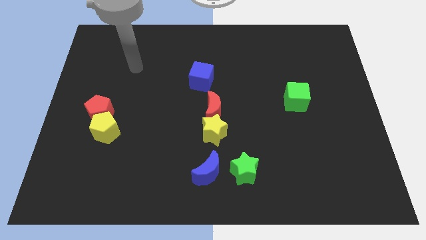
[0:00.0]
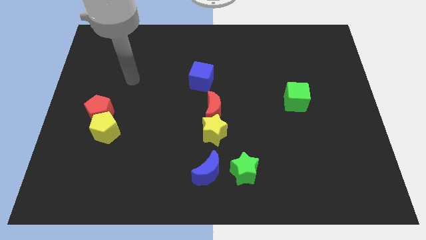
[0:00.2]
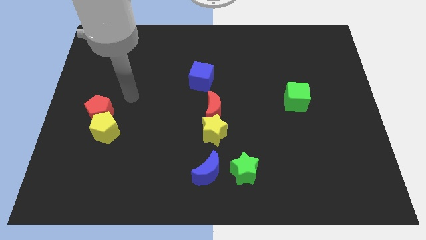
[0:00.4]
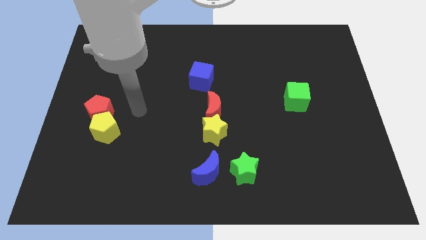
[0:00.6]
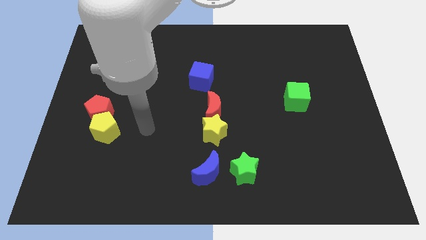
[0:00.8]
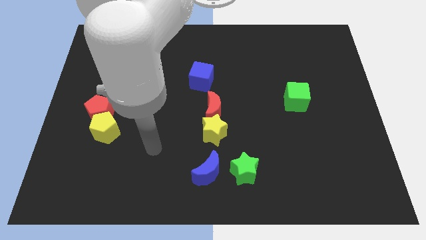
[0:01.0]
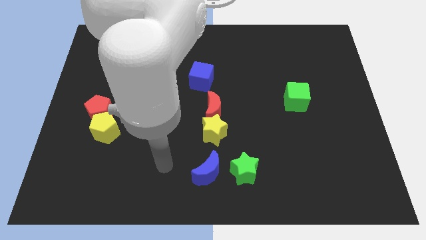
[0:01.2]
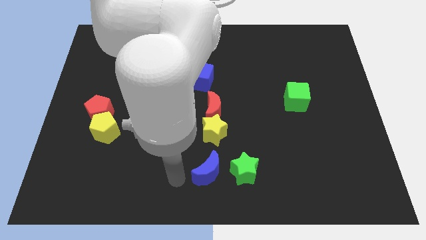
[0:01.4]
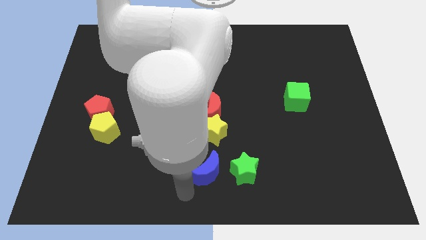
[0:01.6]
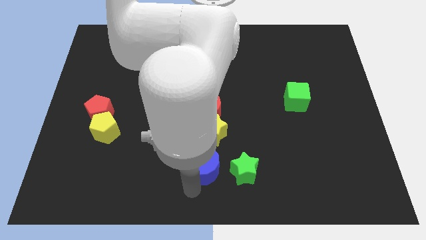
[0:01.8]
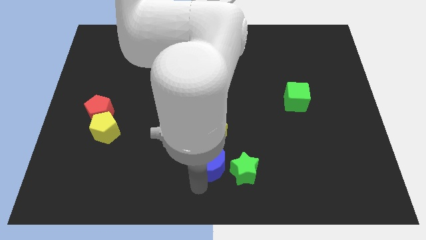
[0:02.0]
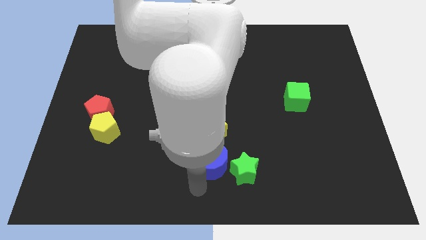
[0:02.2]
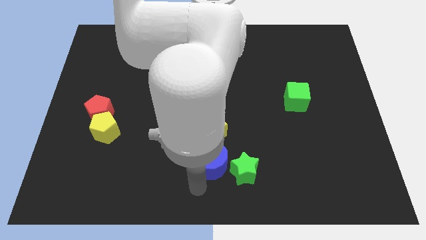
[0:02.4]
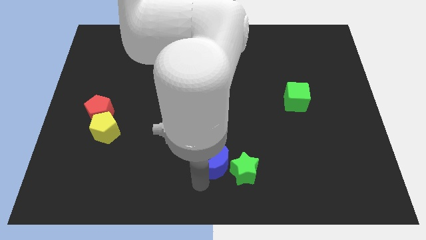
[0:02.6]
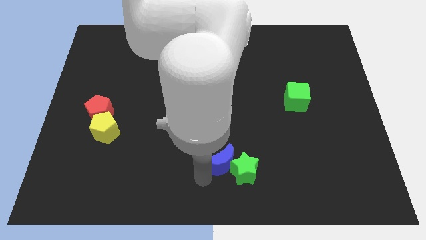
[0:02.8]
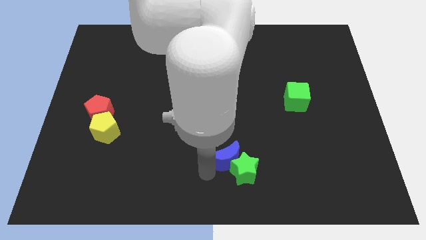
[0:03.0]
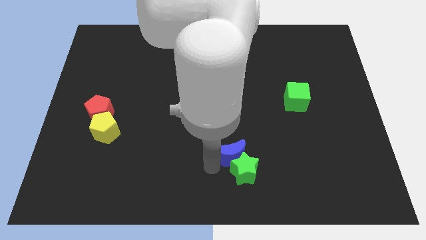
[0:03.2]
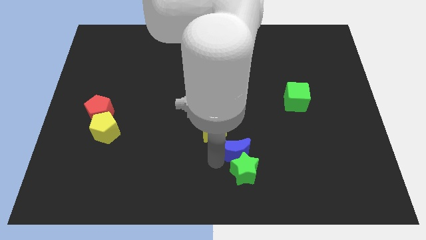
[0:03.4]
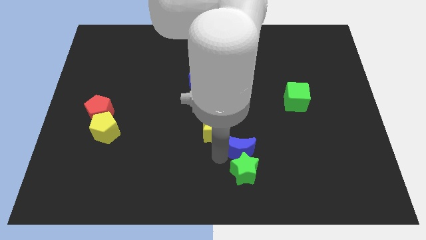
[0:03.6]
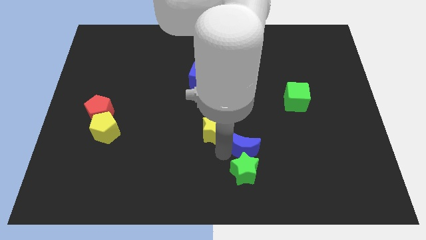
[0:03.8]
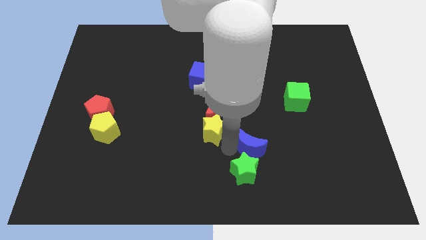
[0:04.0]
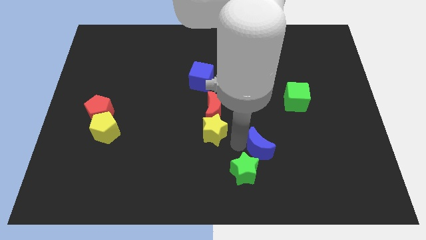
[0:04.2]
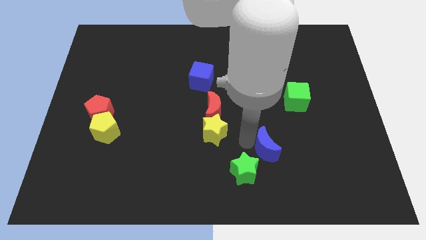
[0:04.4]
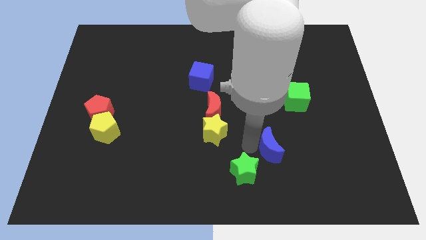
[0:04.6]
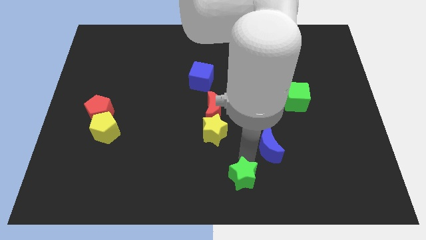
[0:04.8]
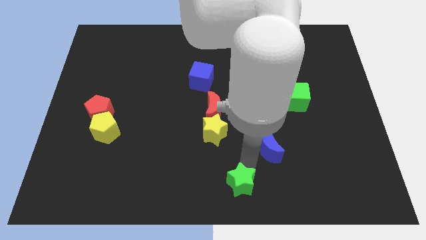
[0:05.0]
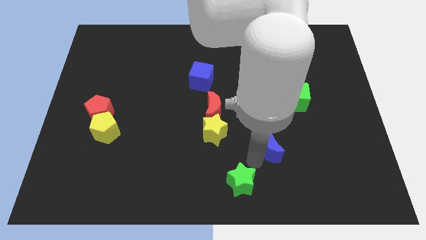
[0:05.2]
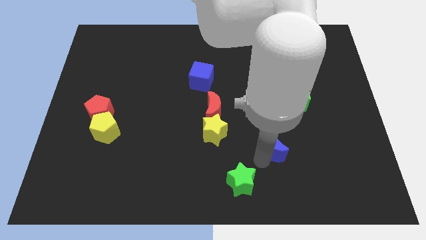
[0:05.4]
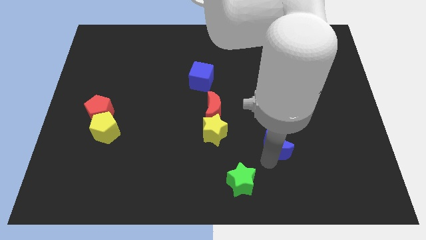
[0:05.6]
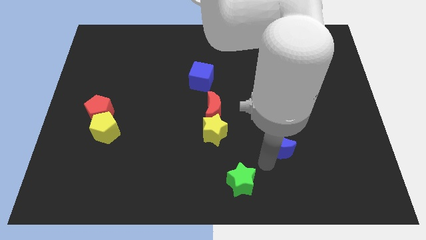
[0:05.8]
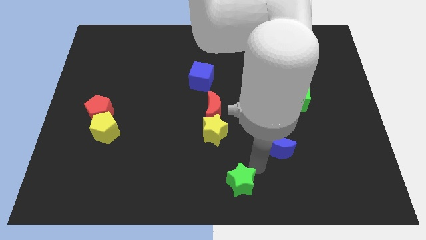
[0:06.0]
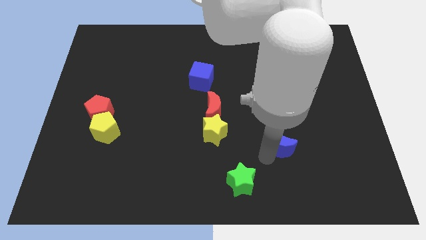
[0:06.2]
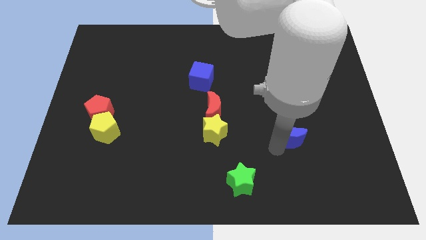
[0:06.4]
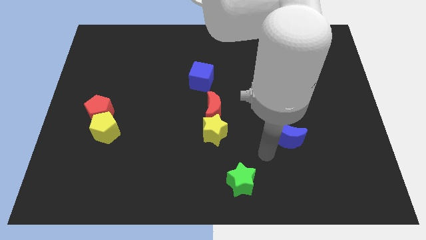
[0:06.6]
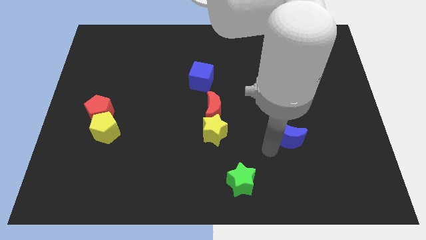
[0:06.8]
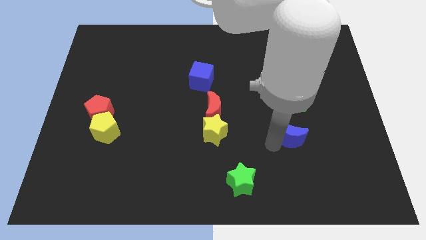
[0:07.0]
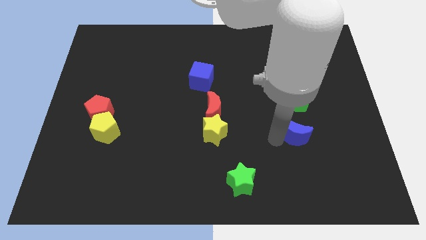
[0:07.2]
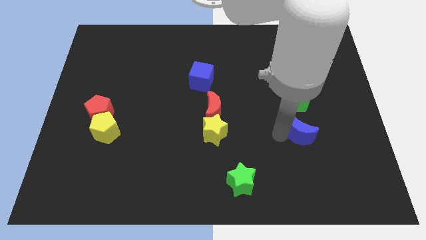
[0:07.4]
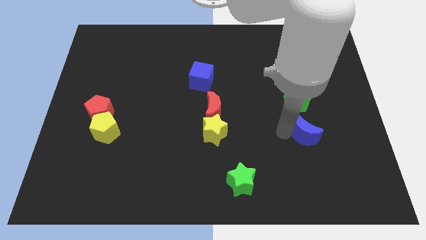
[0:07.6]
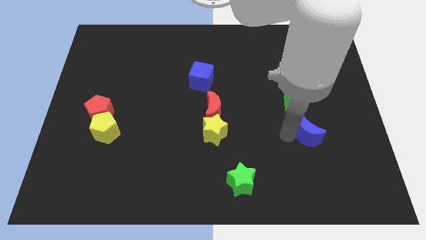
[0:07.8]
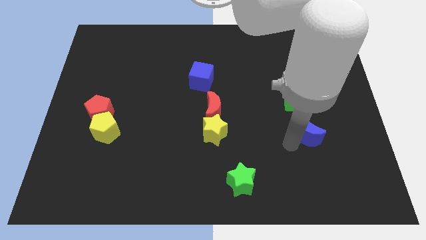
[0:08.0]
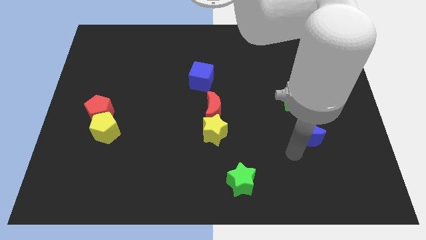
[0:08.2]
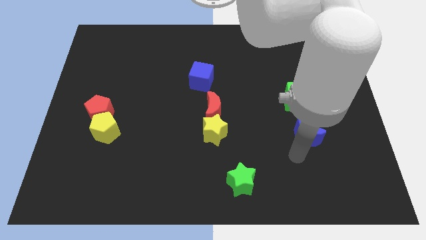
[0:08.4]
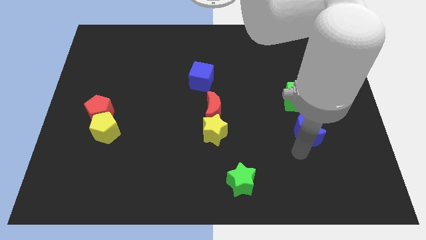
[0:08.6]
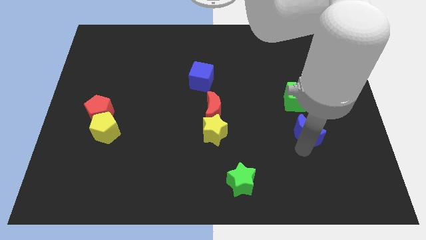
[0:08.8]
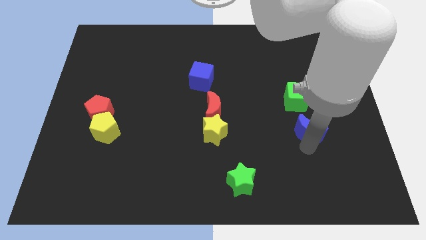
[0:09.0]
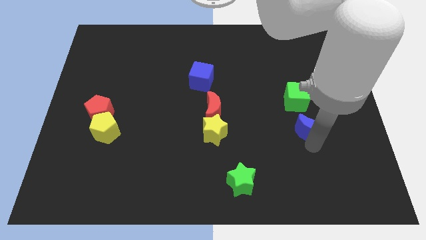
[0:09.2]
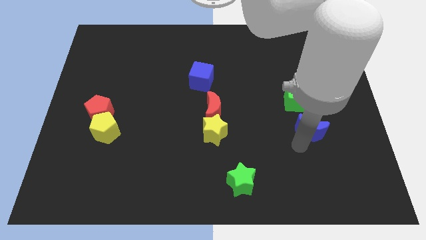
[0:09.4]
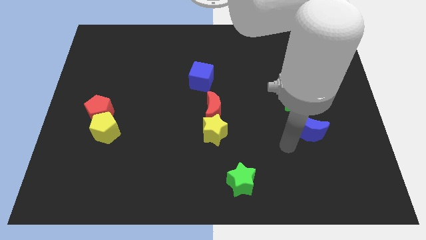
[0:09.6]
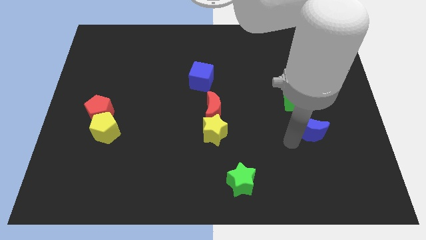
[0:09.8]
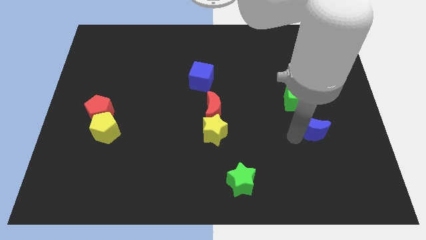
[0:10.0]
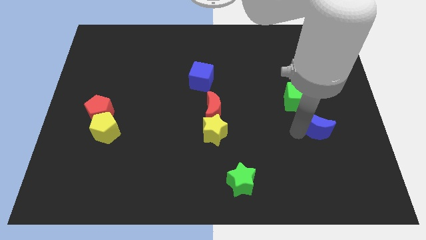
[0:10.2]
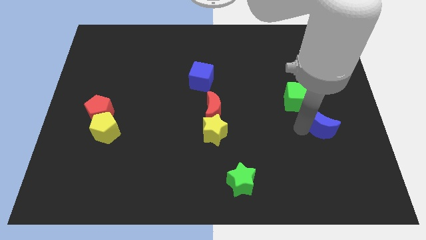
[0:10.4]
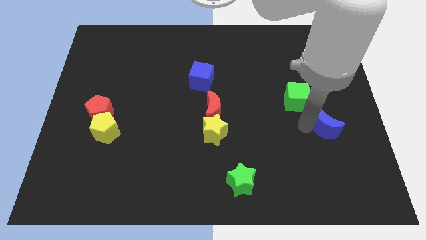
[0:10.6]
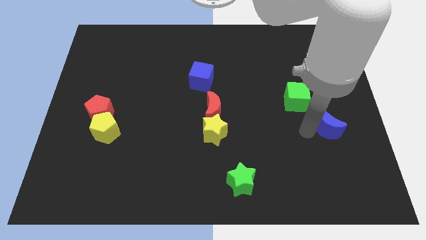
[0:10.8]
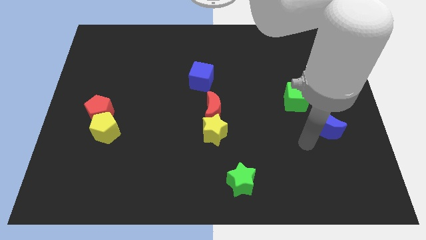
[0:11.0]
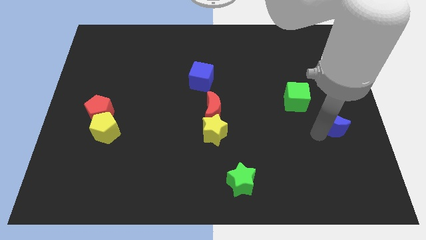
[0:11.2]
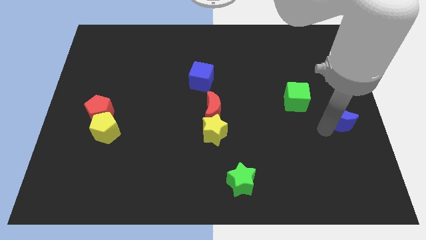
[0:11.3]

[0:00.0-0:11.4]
move the blue moon to the right side of the board

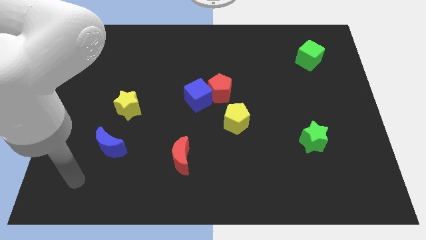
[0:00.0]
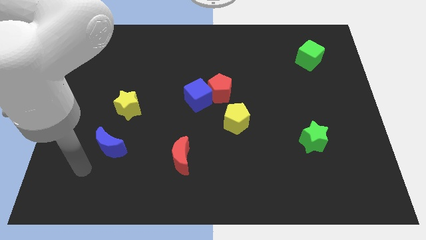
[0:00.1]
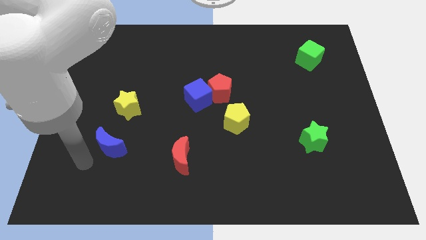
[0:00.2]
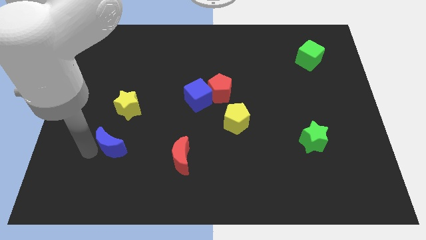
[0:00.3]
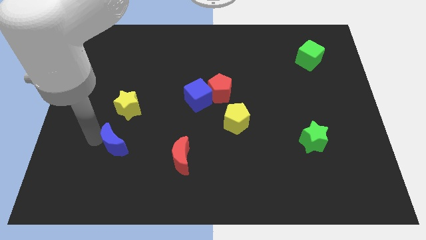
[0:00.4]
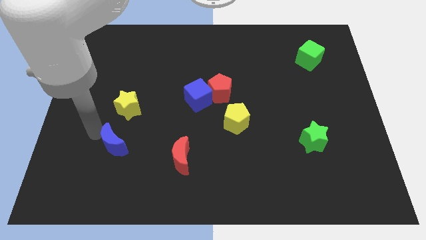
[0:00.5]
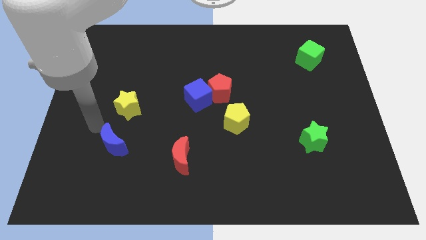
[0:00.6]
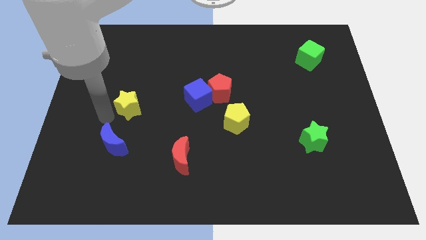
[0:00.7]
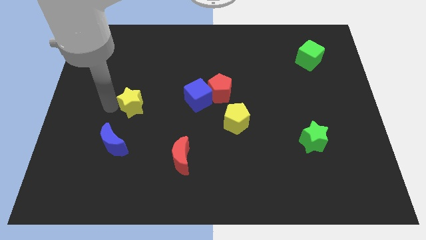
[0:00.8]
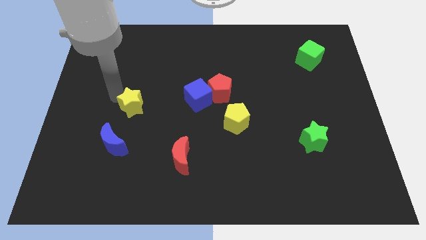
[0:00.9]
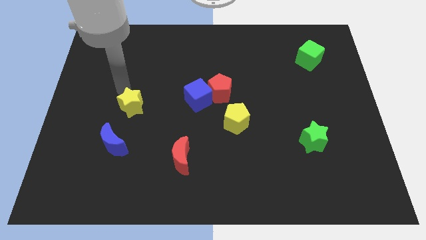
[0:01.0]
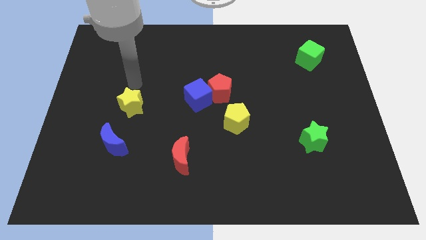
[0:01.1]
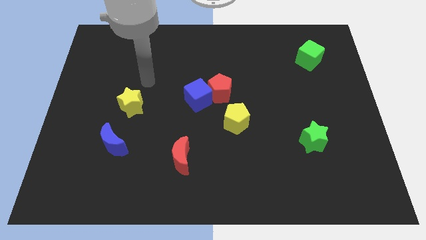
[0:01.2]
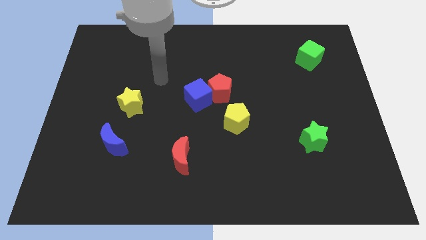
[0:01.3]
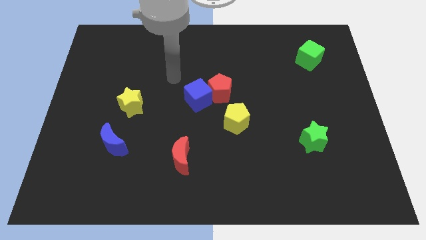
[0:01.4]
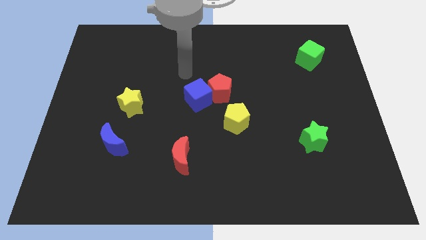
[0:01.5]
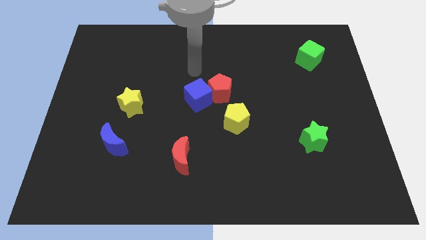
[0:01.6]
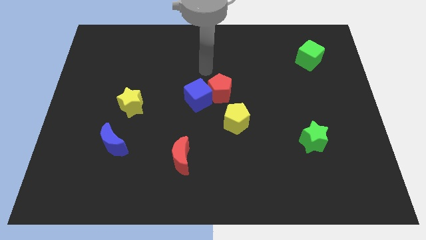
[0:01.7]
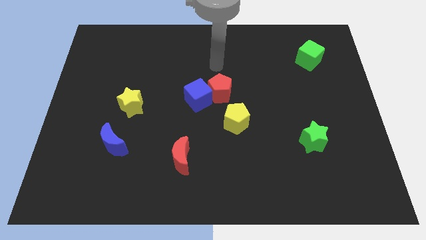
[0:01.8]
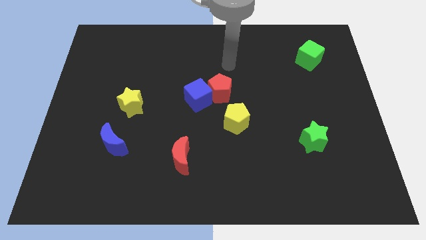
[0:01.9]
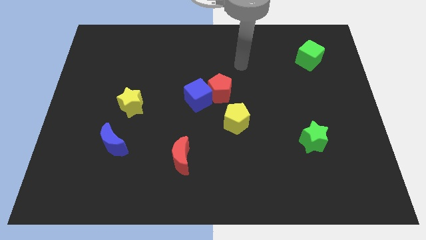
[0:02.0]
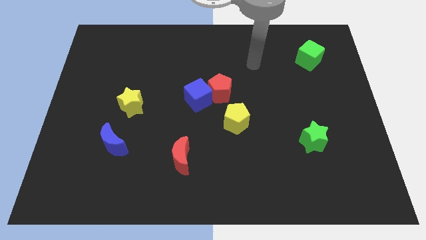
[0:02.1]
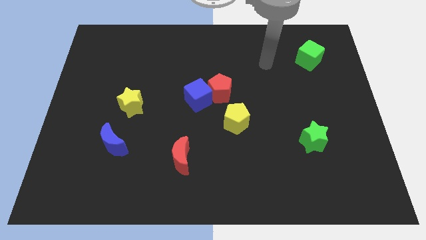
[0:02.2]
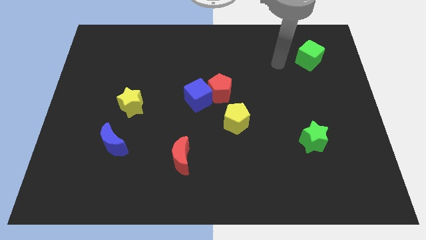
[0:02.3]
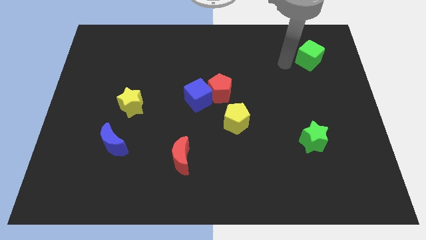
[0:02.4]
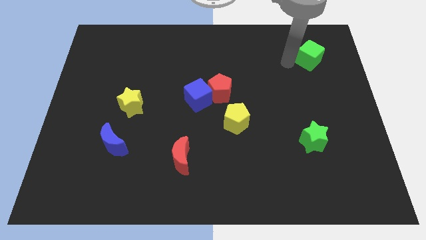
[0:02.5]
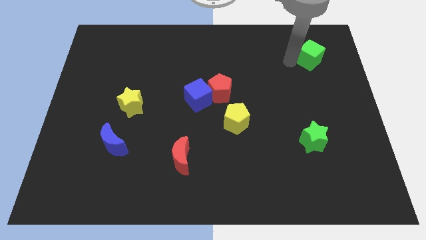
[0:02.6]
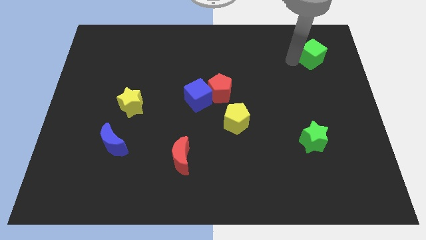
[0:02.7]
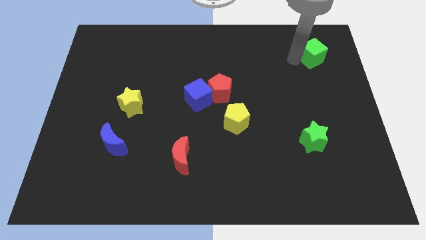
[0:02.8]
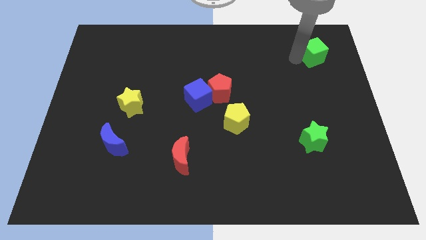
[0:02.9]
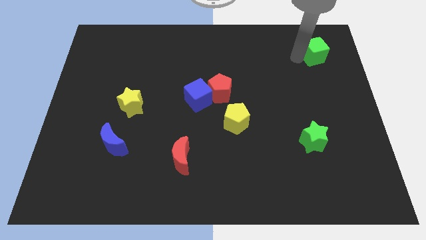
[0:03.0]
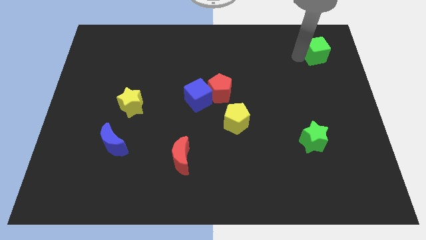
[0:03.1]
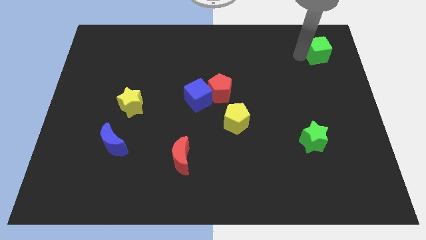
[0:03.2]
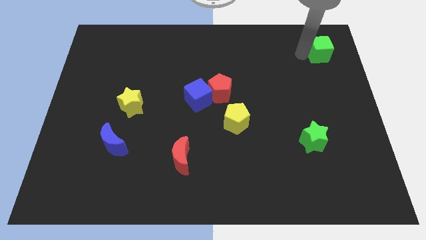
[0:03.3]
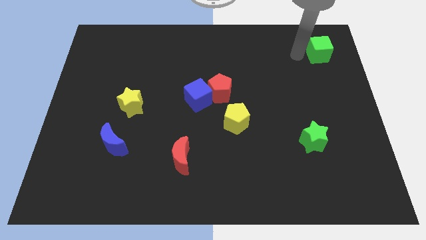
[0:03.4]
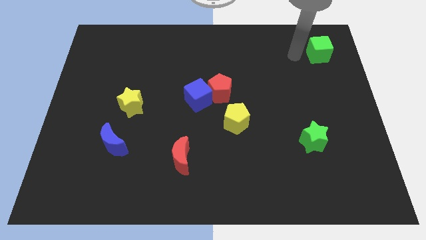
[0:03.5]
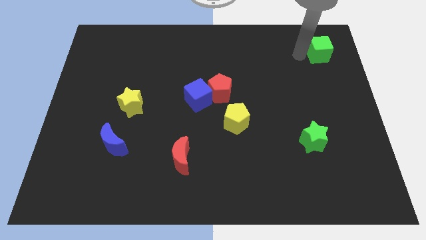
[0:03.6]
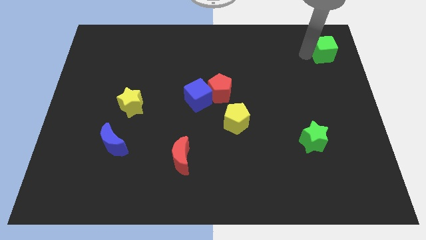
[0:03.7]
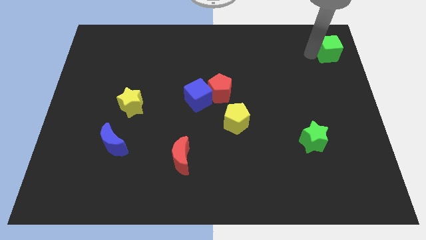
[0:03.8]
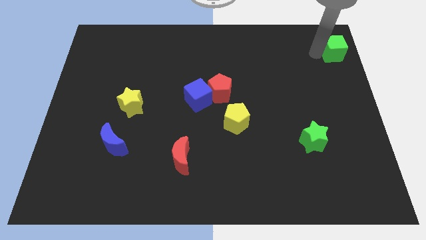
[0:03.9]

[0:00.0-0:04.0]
move the green cube to the upper right corner
